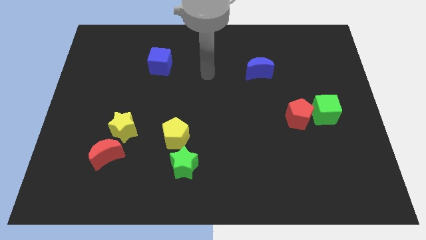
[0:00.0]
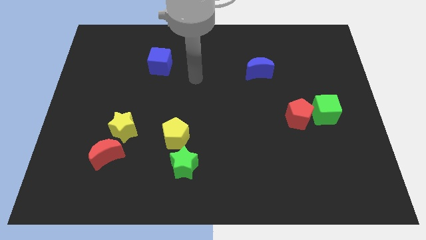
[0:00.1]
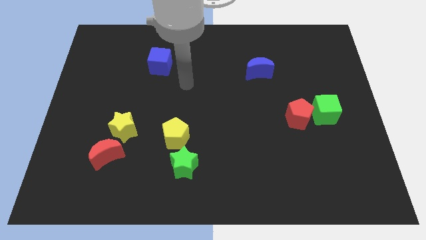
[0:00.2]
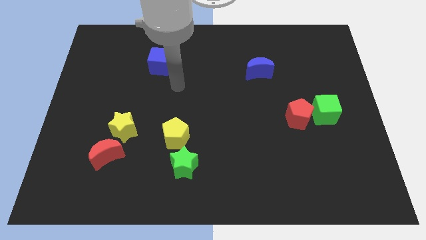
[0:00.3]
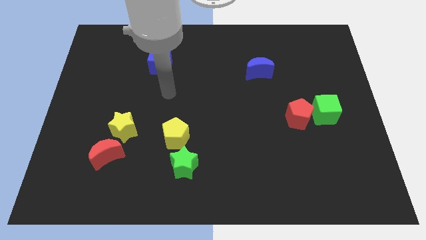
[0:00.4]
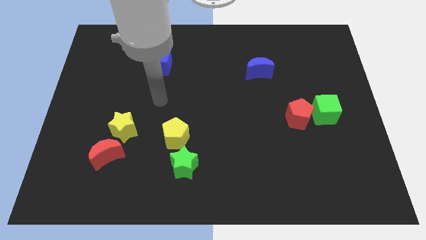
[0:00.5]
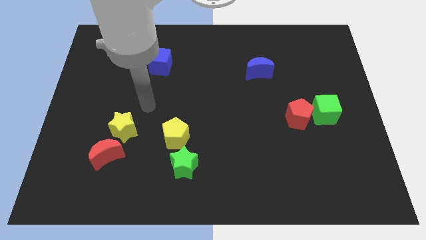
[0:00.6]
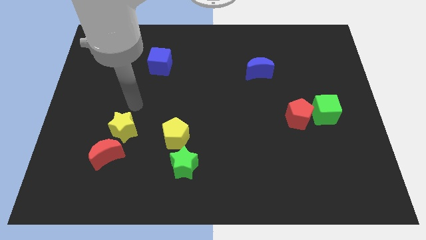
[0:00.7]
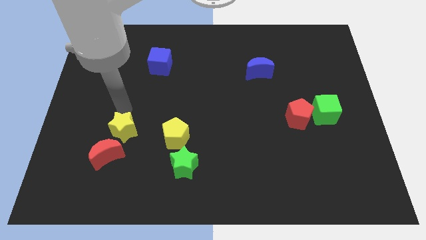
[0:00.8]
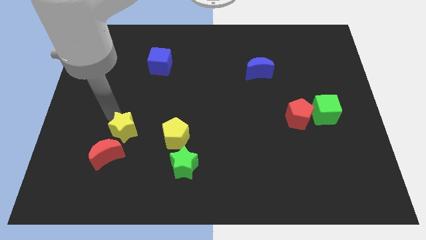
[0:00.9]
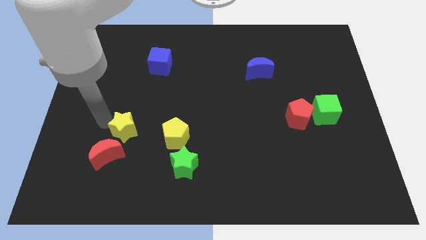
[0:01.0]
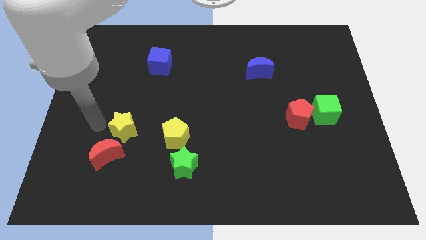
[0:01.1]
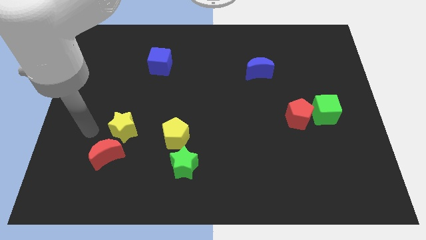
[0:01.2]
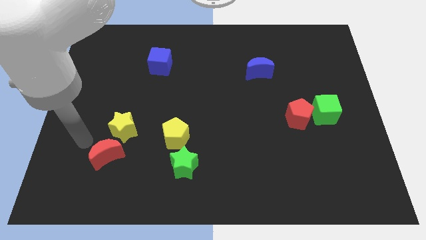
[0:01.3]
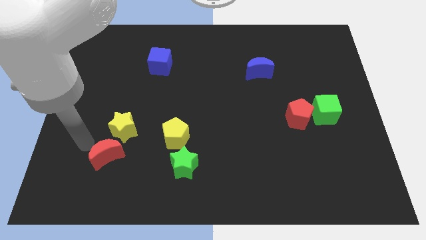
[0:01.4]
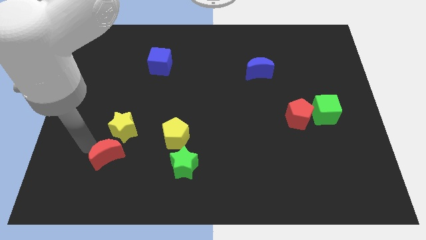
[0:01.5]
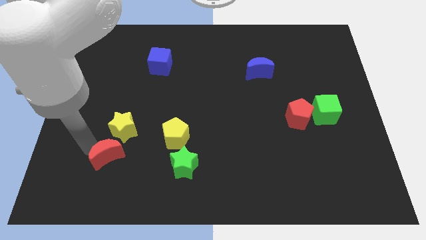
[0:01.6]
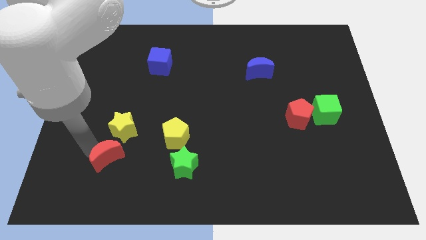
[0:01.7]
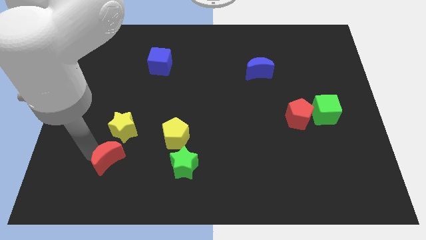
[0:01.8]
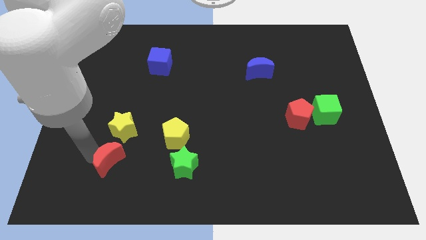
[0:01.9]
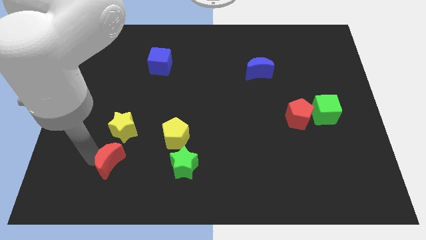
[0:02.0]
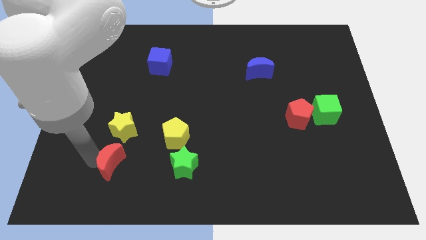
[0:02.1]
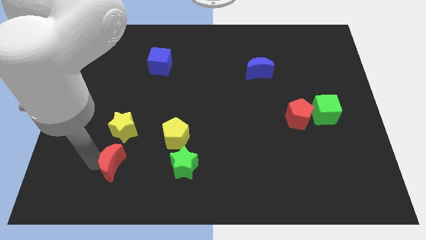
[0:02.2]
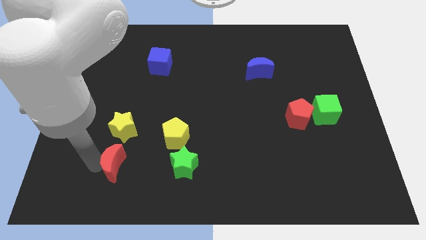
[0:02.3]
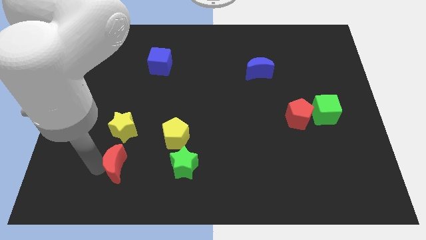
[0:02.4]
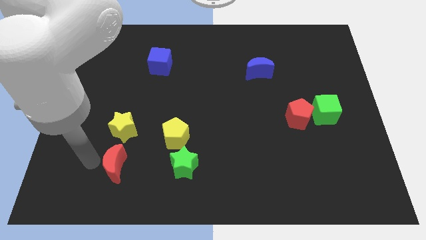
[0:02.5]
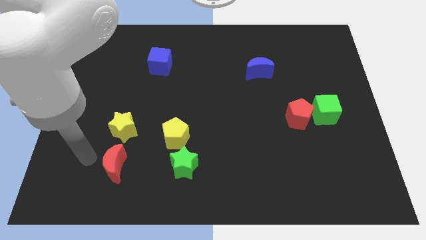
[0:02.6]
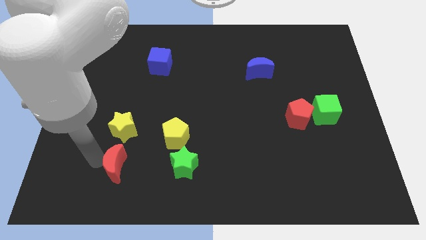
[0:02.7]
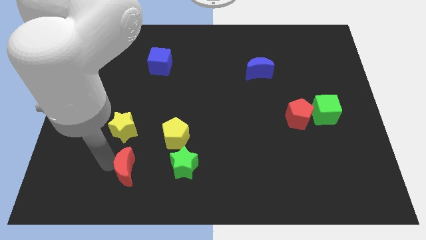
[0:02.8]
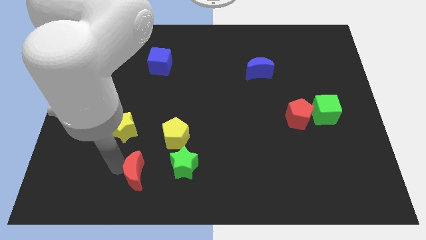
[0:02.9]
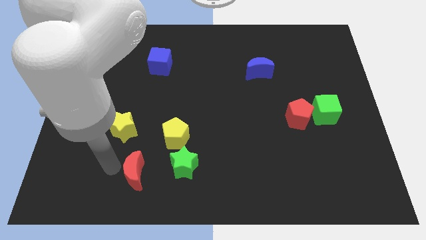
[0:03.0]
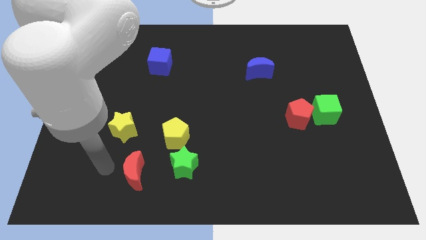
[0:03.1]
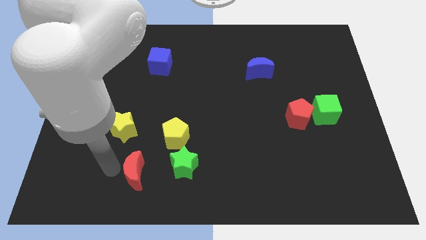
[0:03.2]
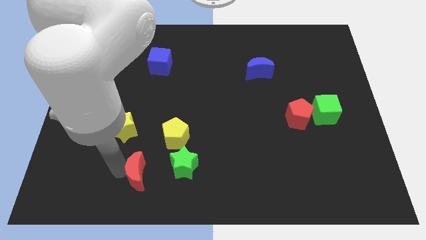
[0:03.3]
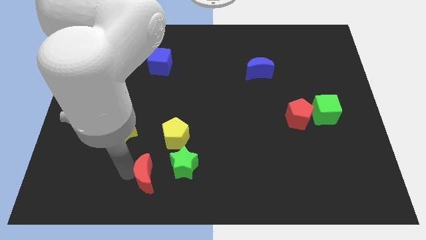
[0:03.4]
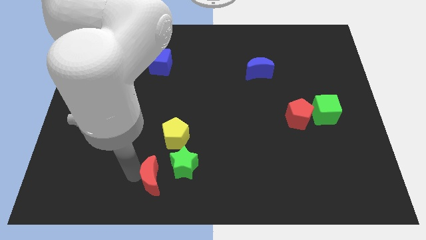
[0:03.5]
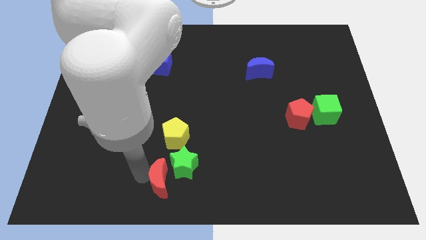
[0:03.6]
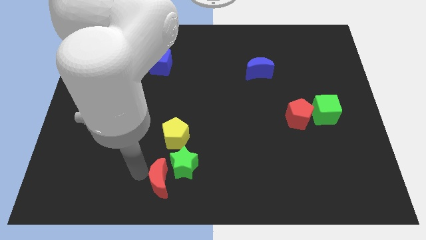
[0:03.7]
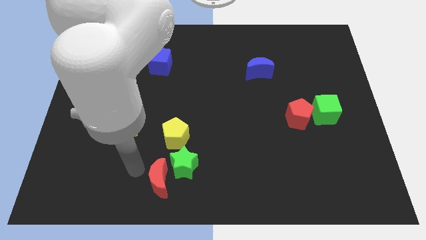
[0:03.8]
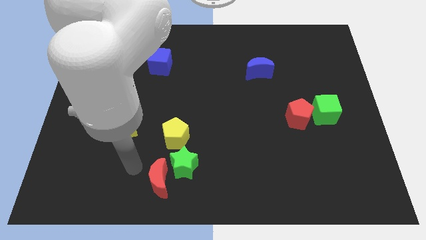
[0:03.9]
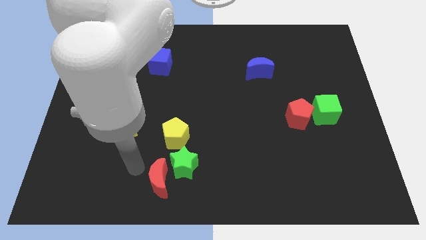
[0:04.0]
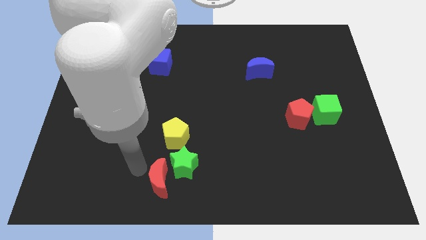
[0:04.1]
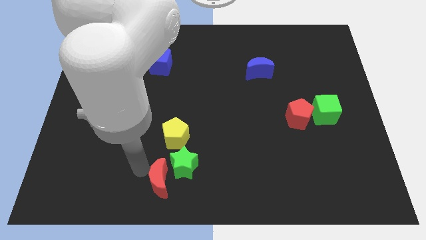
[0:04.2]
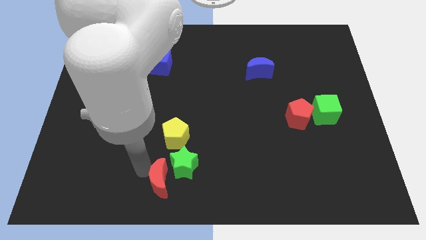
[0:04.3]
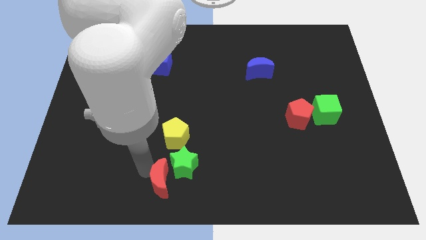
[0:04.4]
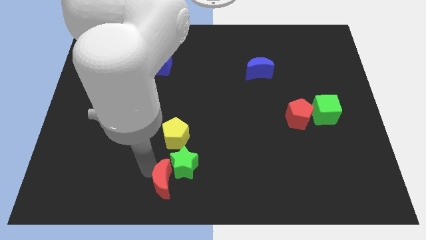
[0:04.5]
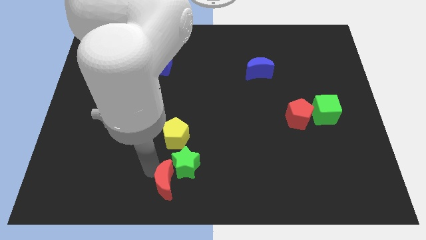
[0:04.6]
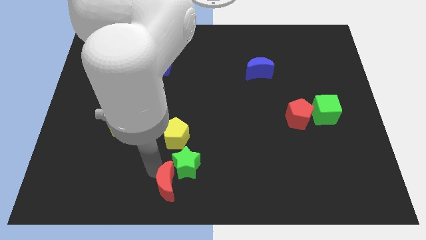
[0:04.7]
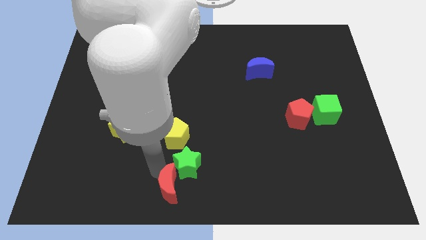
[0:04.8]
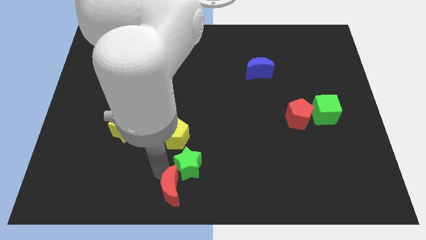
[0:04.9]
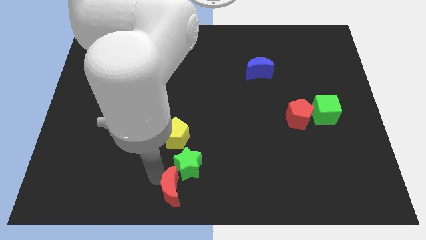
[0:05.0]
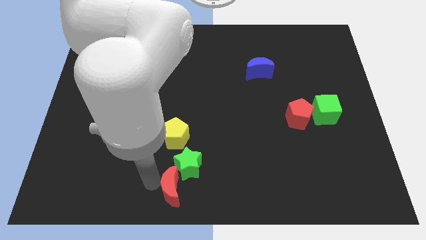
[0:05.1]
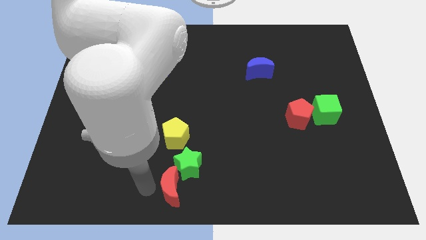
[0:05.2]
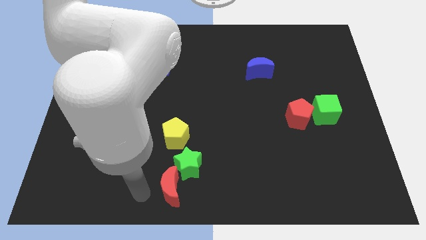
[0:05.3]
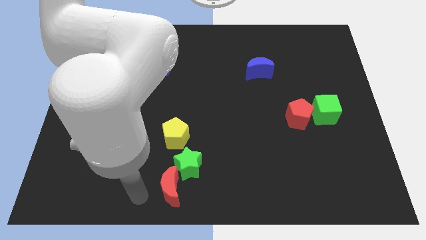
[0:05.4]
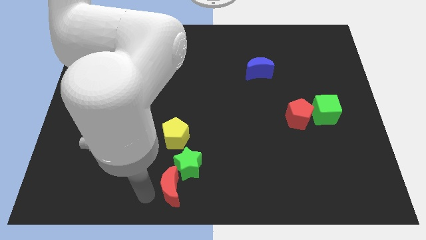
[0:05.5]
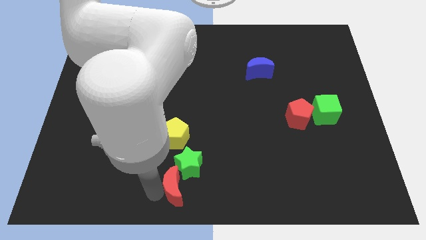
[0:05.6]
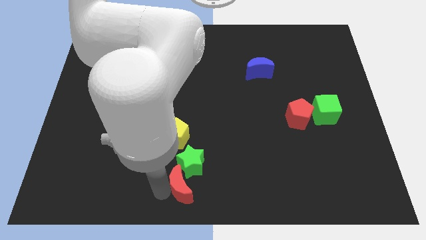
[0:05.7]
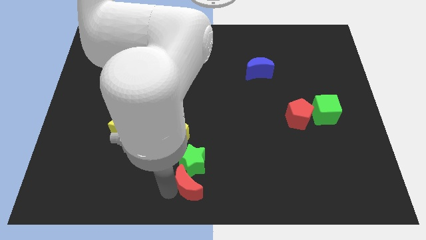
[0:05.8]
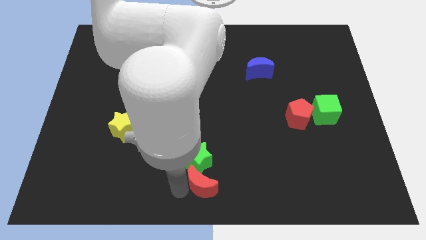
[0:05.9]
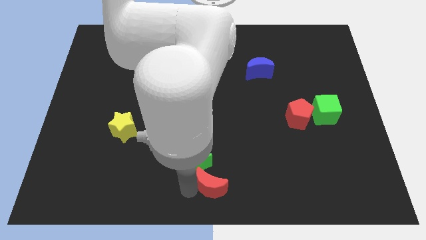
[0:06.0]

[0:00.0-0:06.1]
slide the red moon right

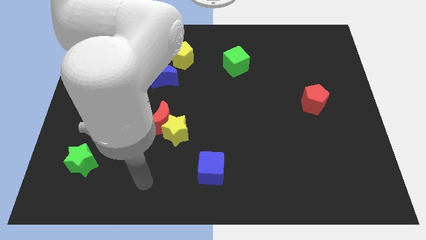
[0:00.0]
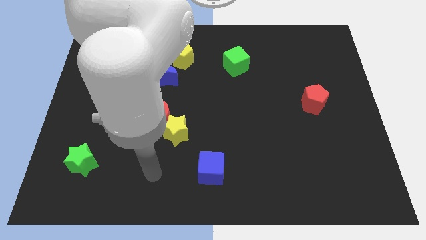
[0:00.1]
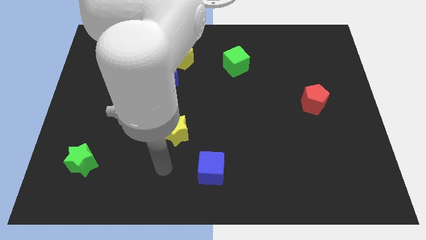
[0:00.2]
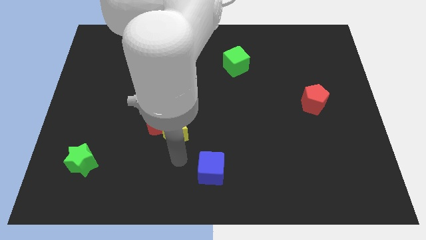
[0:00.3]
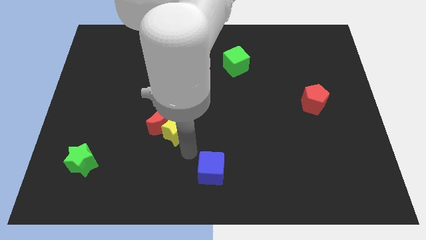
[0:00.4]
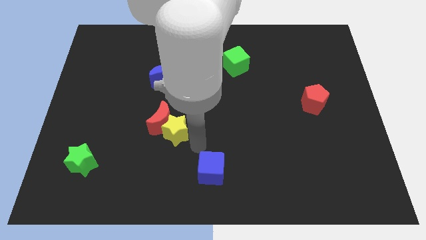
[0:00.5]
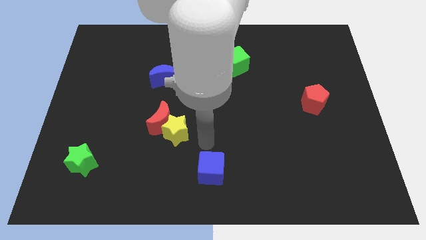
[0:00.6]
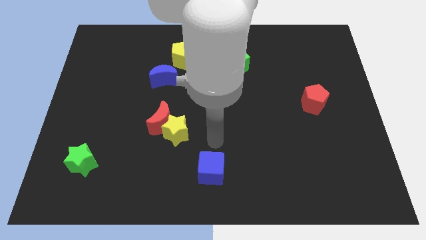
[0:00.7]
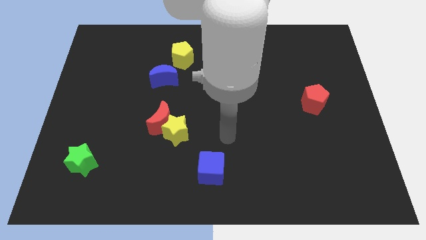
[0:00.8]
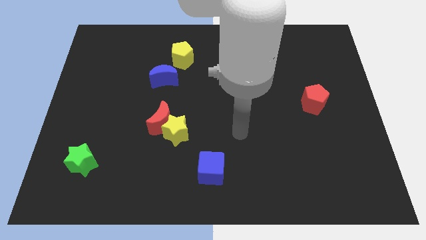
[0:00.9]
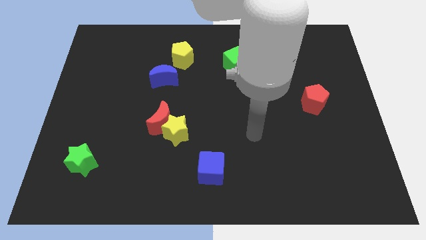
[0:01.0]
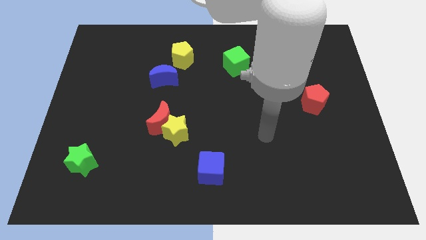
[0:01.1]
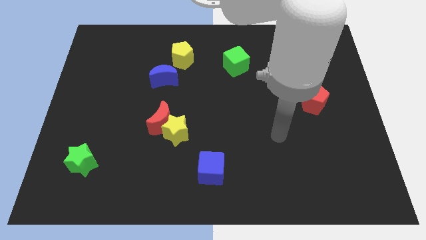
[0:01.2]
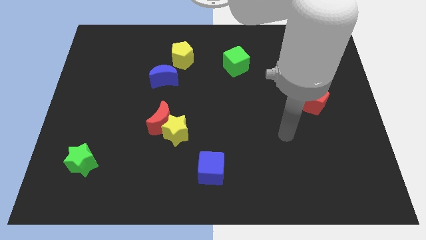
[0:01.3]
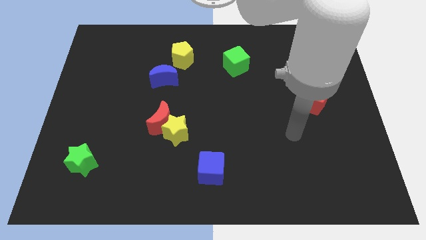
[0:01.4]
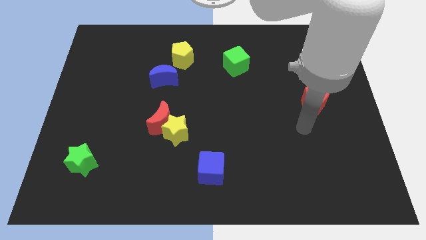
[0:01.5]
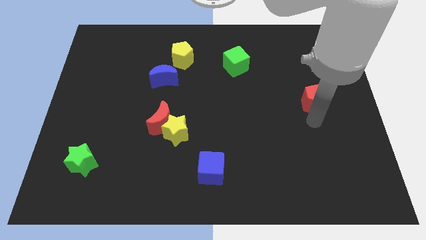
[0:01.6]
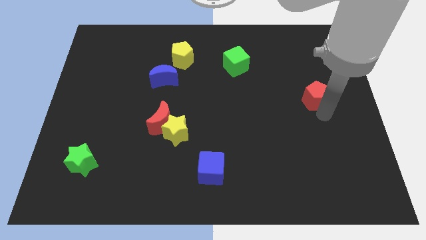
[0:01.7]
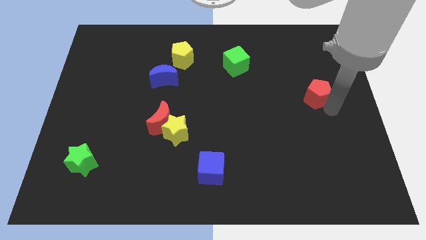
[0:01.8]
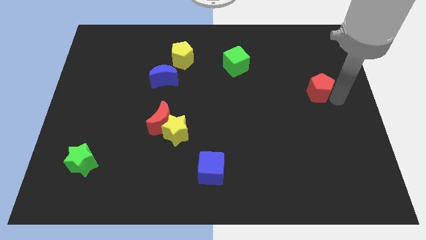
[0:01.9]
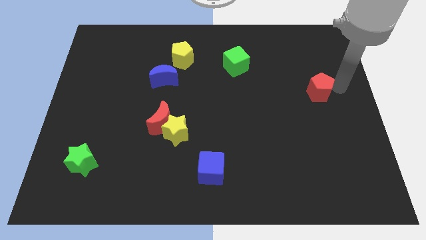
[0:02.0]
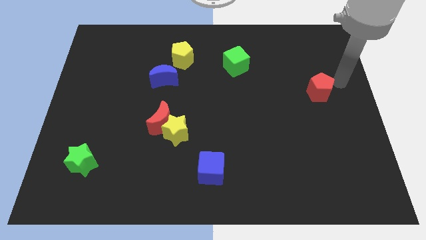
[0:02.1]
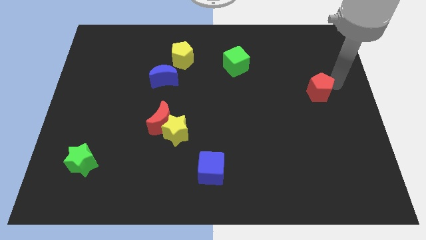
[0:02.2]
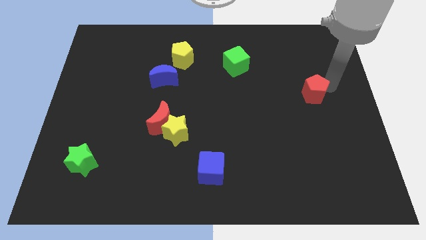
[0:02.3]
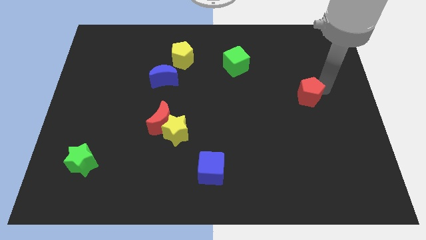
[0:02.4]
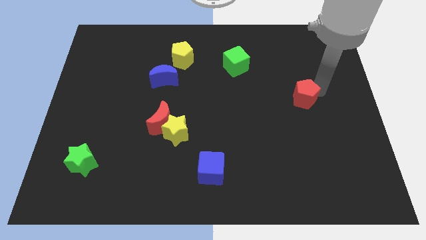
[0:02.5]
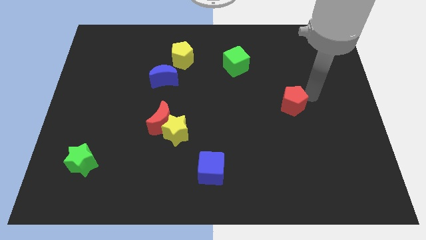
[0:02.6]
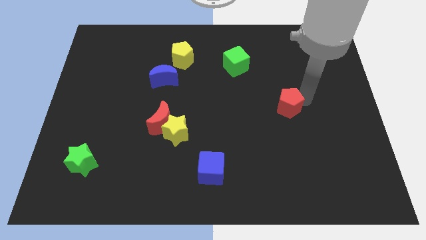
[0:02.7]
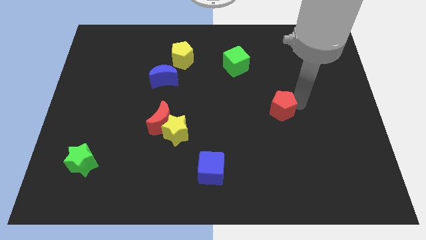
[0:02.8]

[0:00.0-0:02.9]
push the red pentagon left a bit
